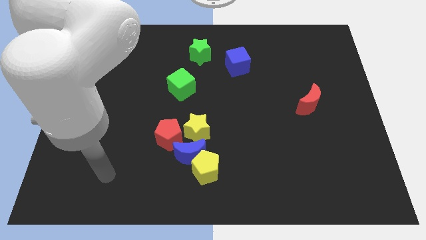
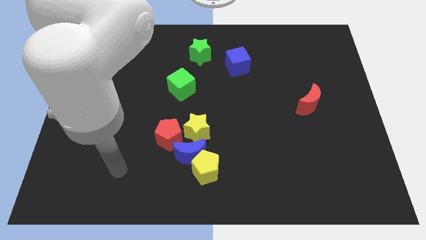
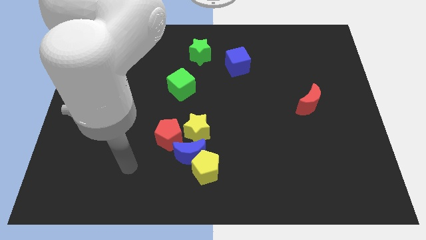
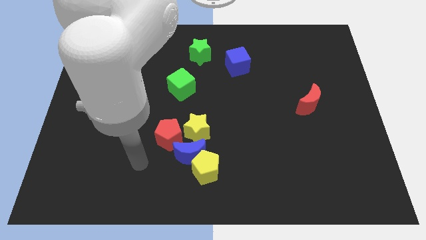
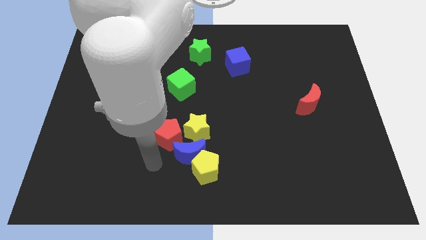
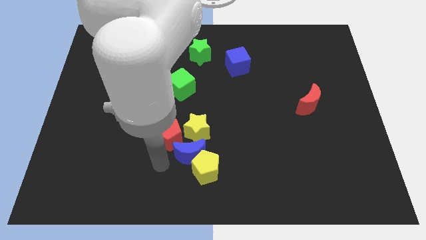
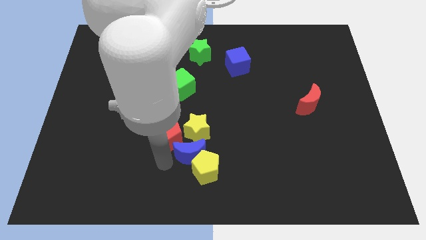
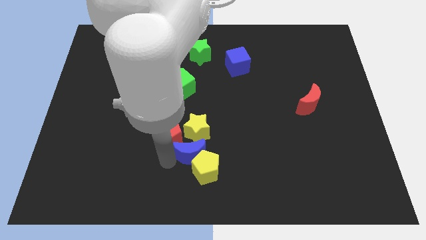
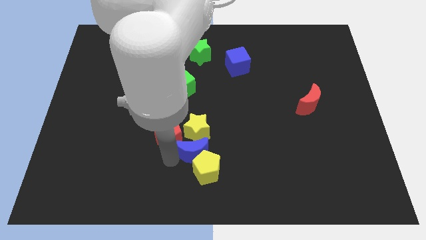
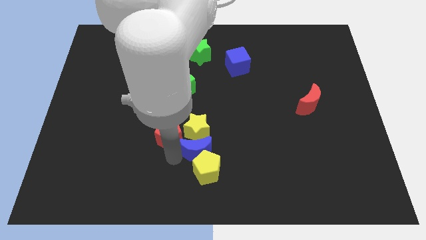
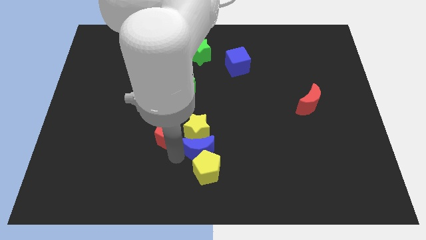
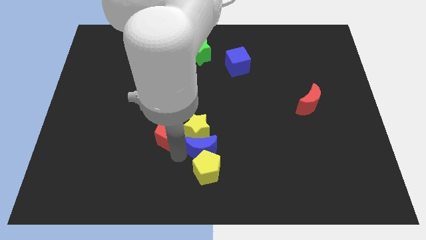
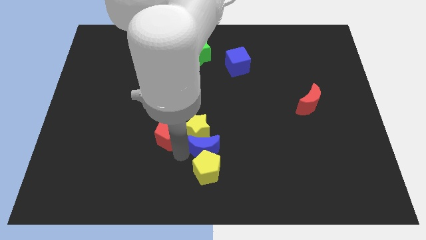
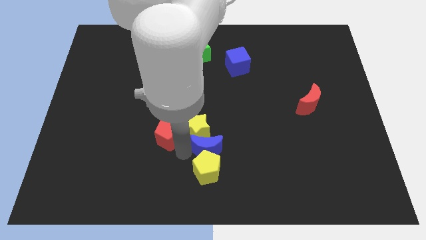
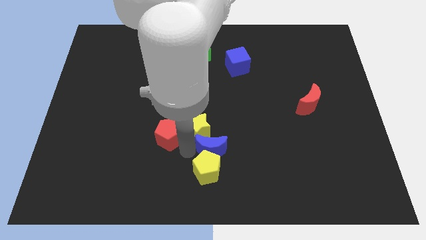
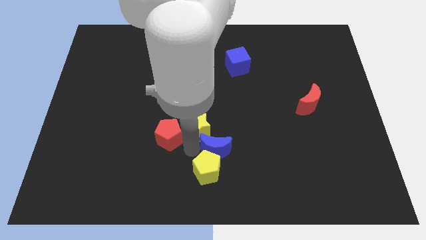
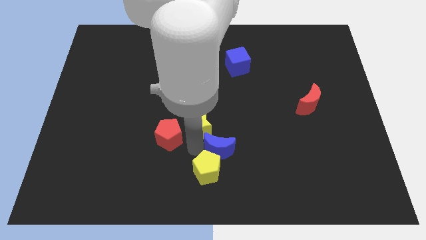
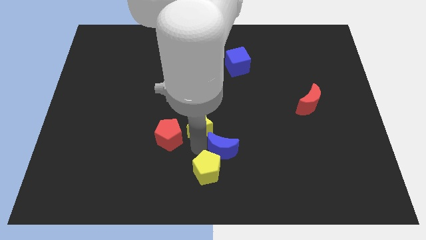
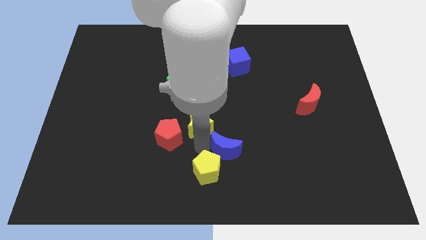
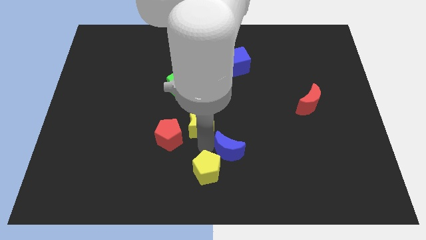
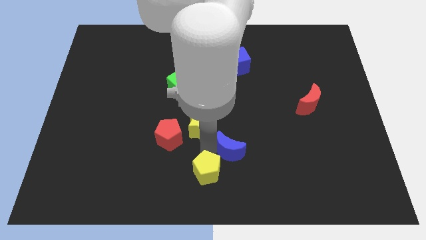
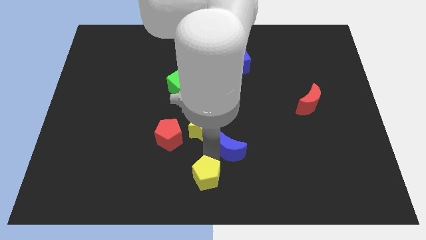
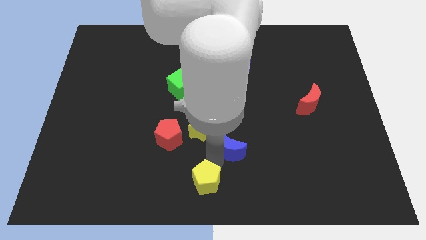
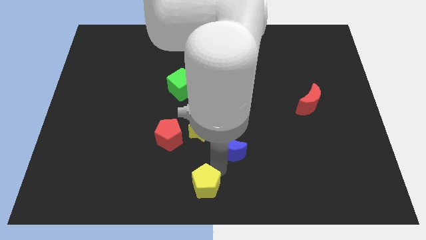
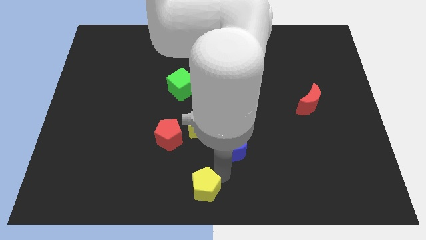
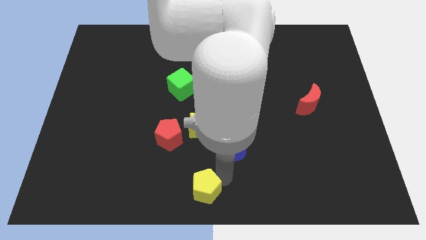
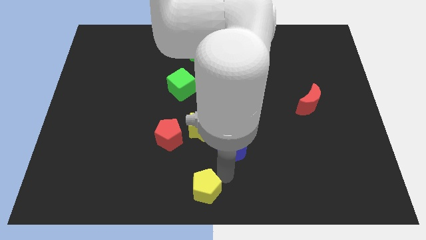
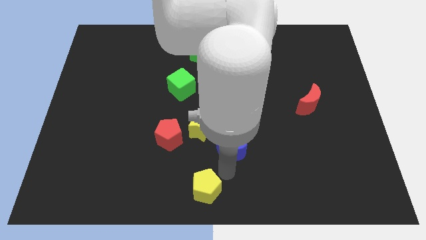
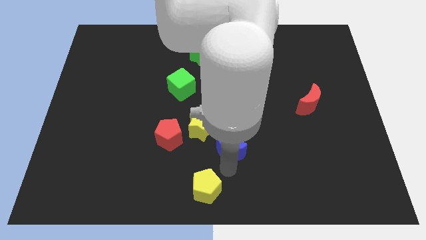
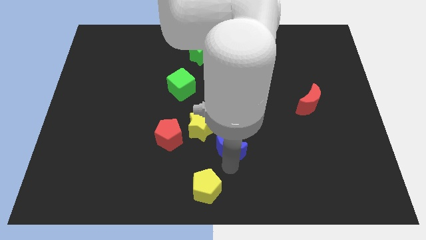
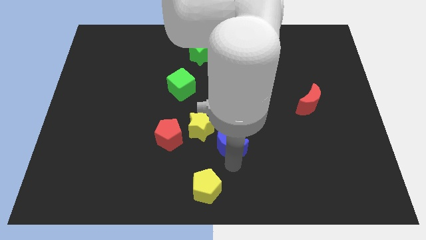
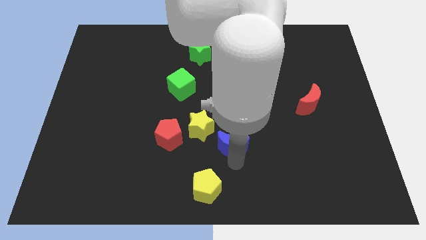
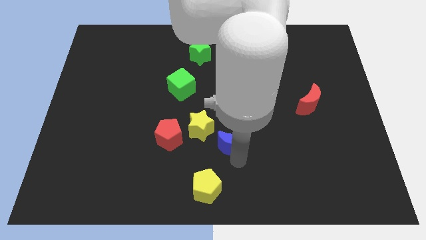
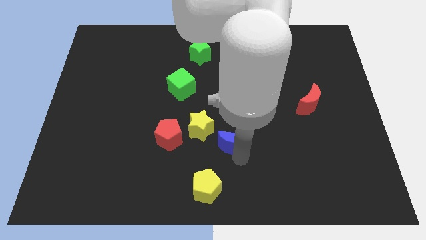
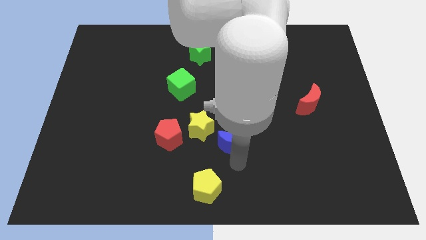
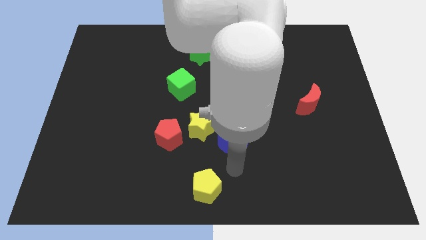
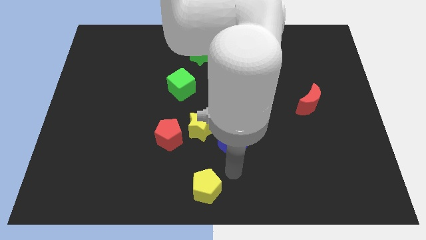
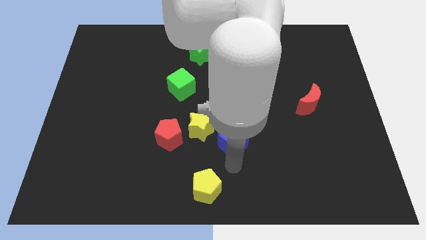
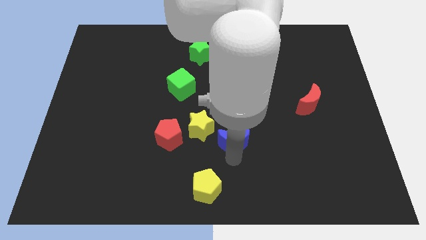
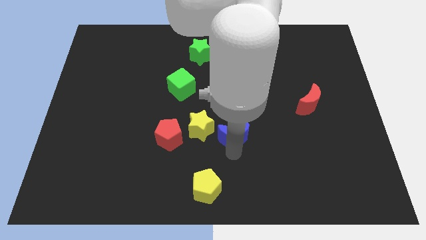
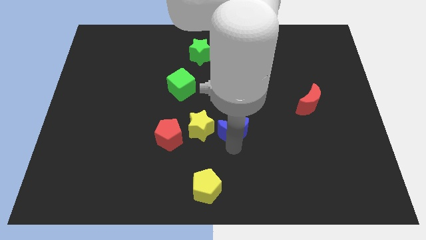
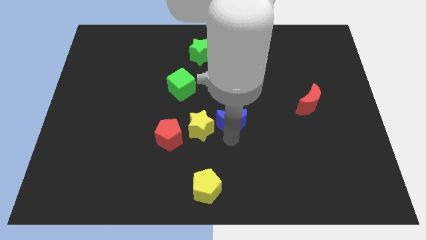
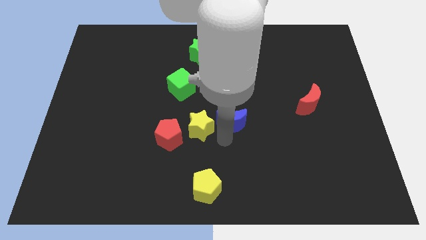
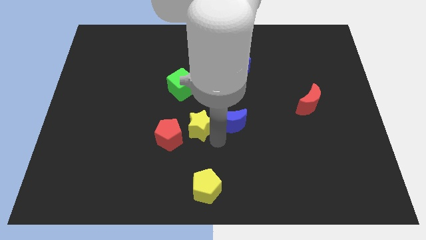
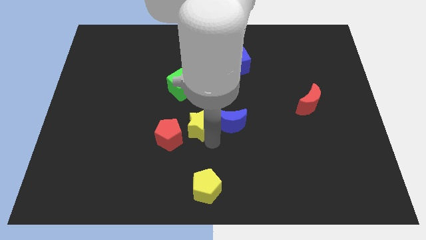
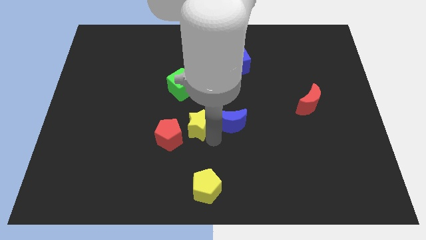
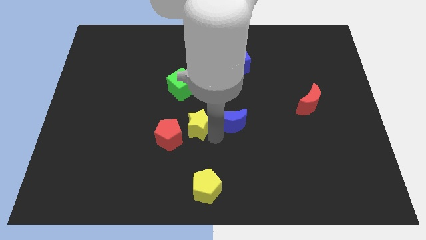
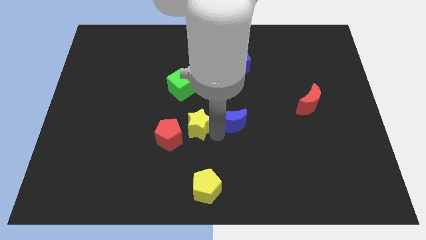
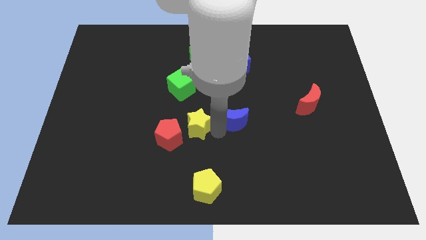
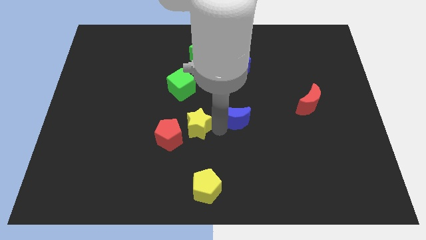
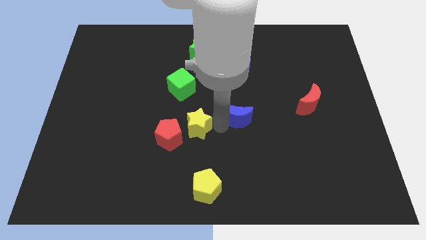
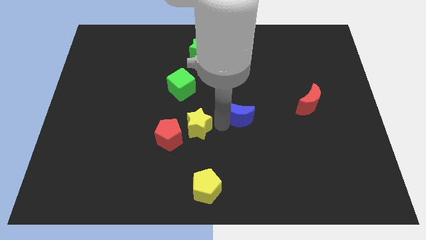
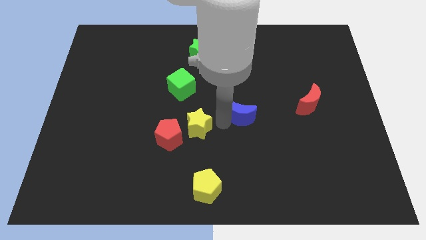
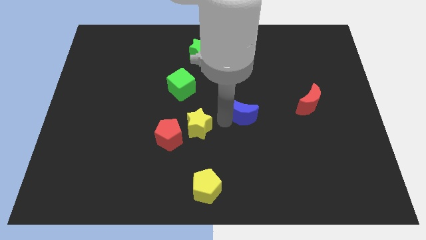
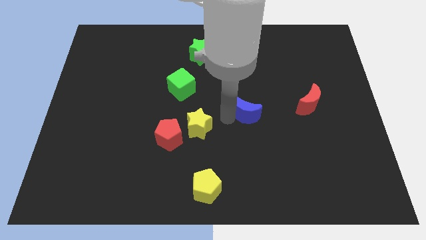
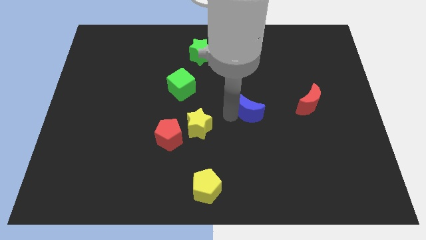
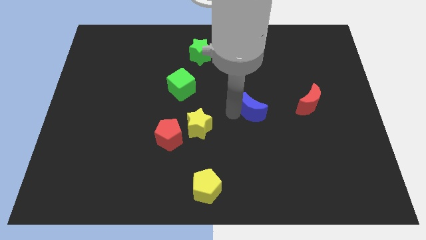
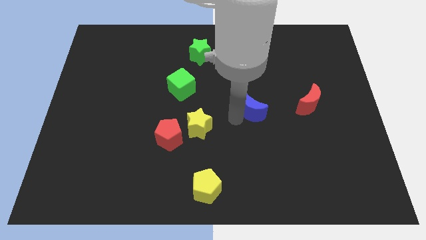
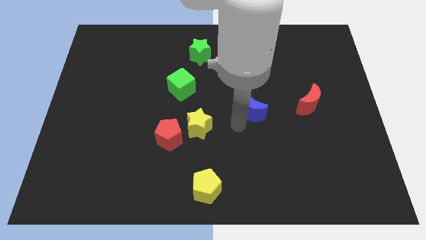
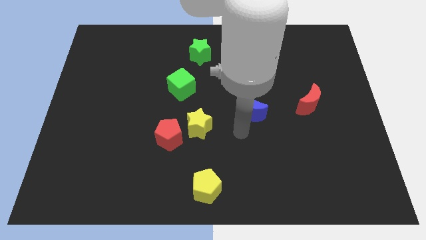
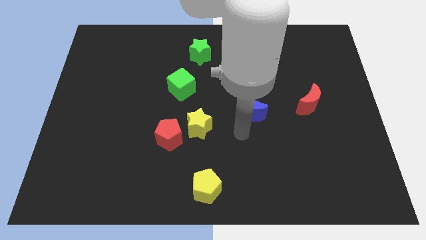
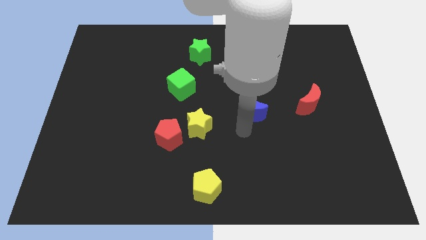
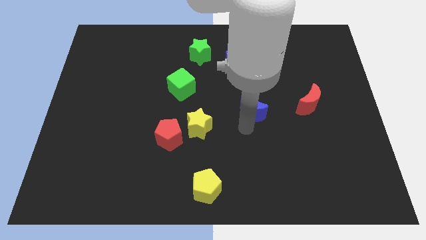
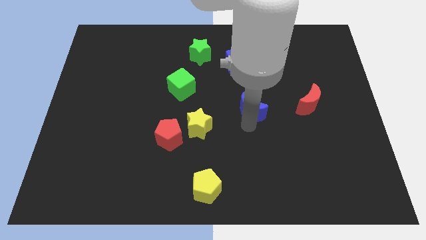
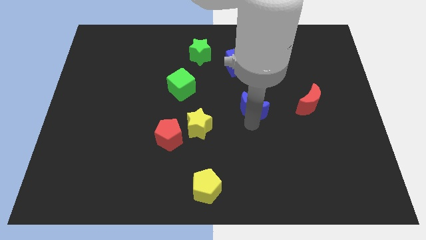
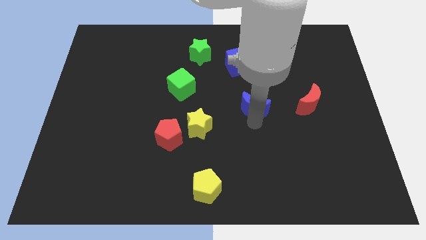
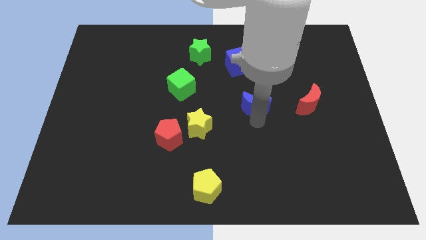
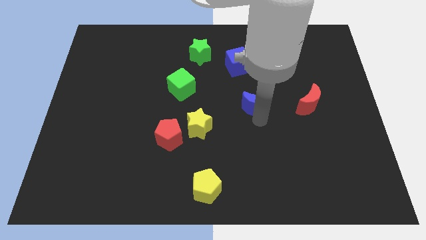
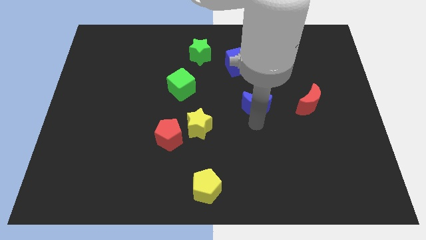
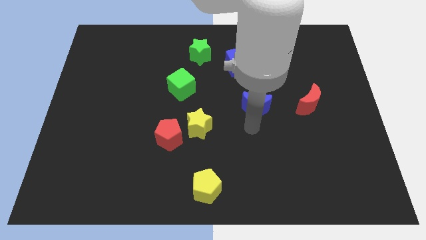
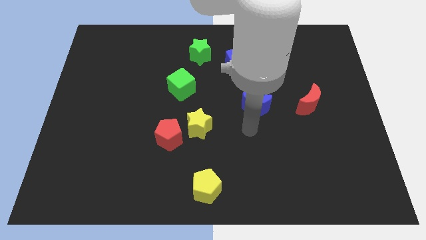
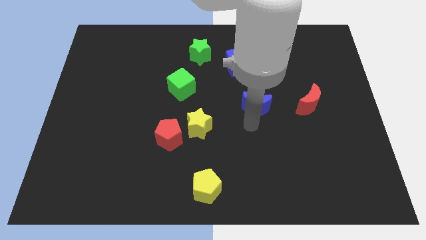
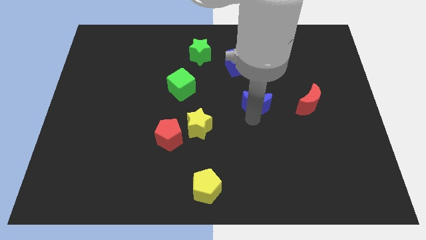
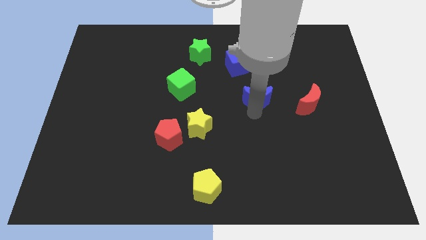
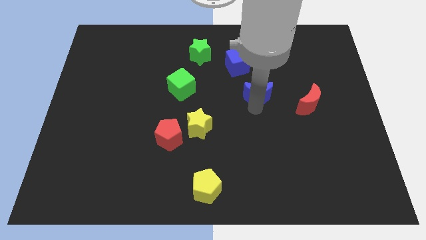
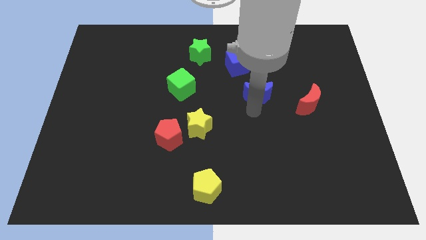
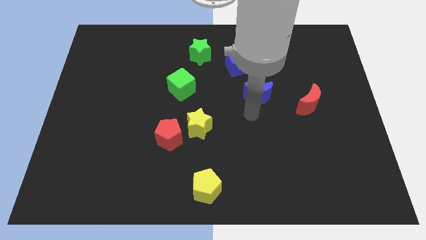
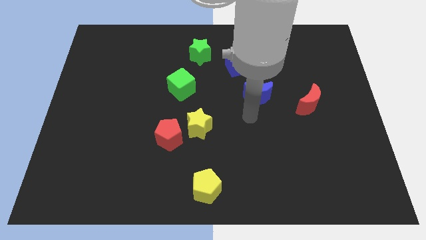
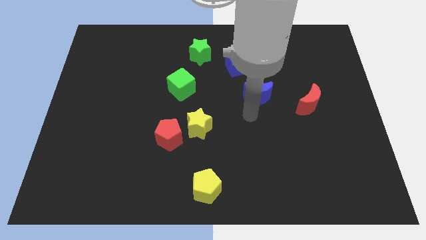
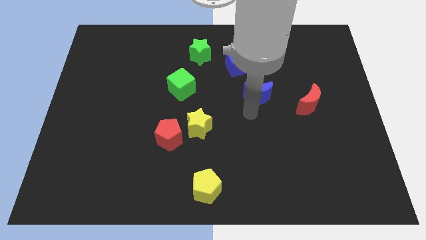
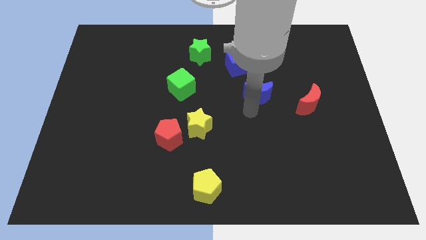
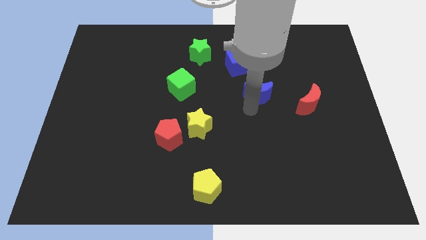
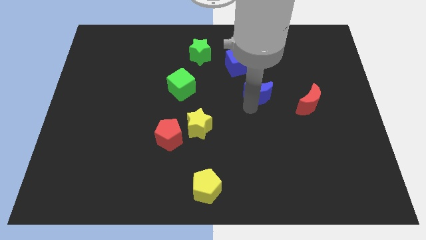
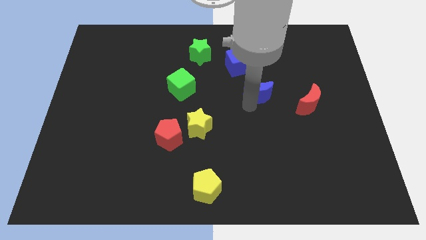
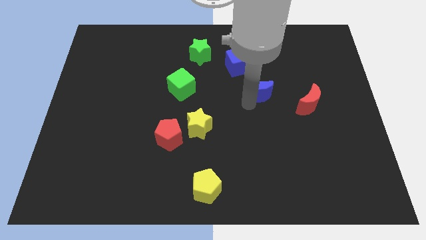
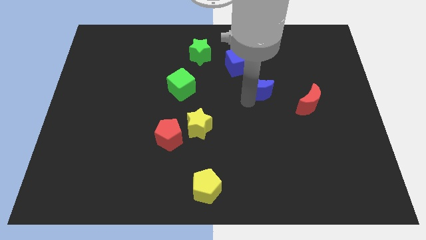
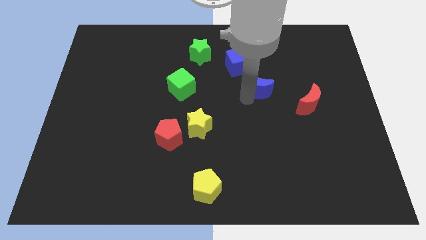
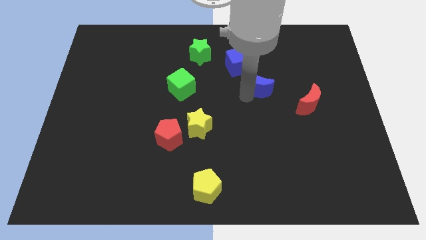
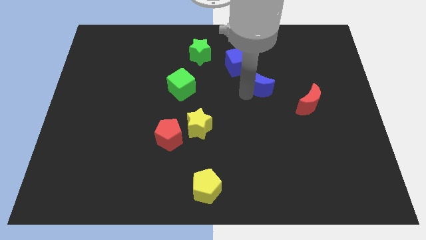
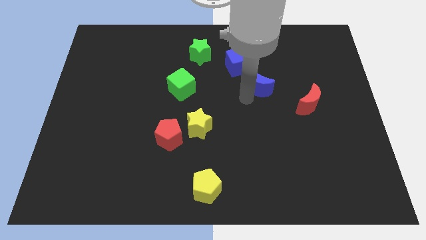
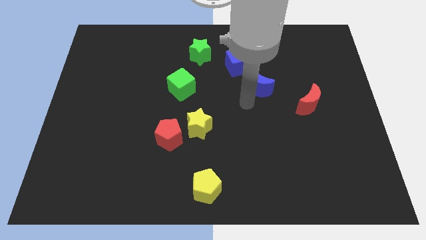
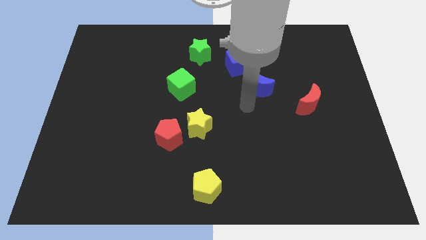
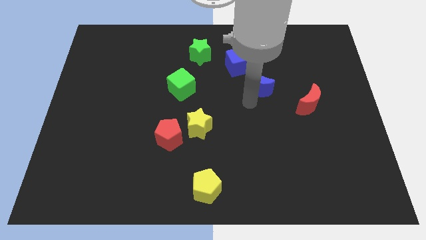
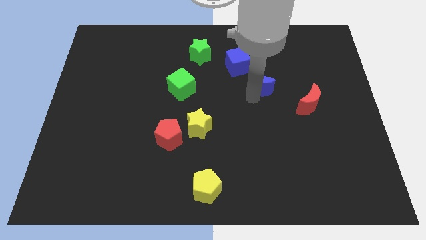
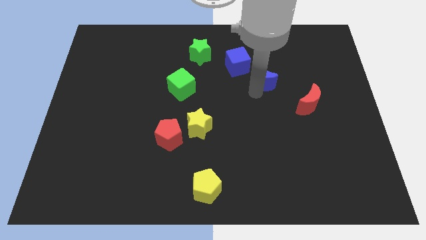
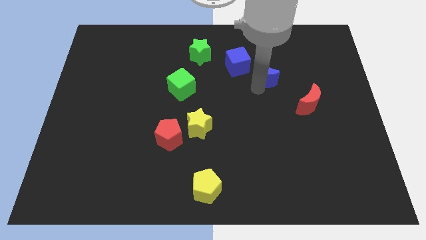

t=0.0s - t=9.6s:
push the blue moon to the right side of the blue cube
